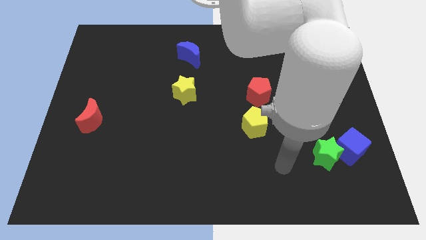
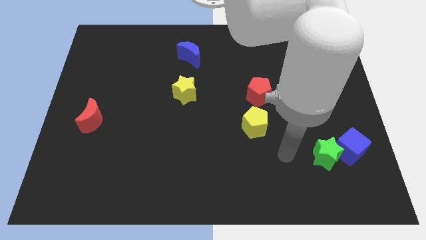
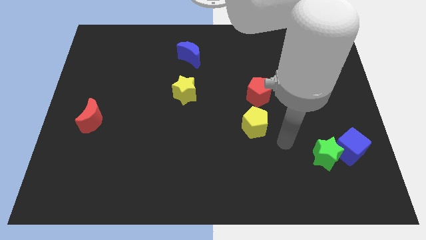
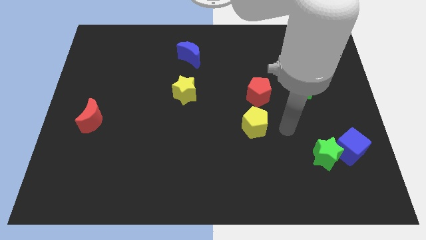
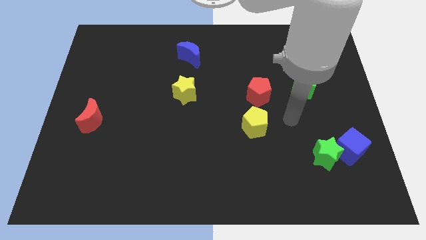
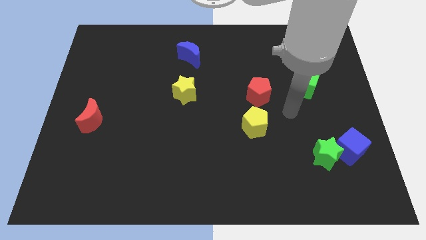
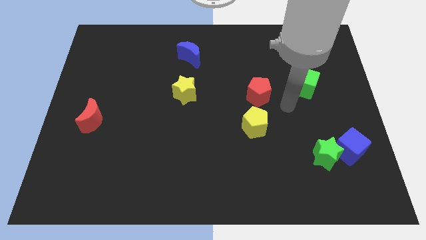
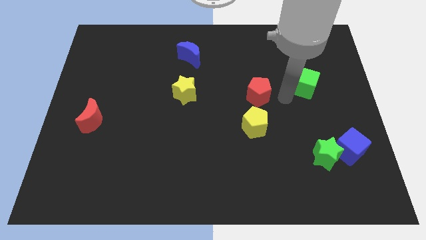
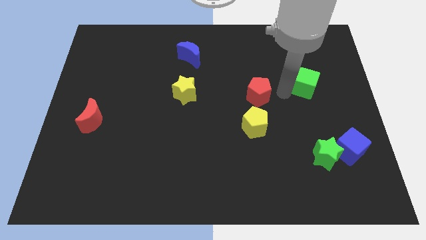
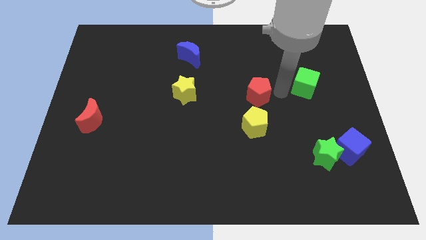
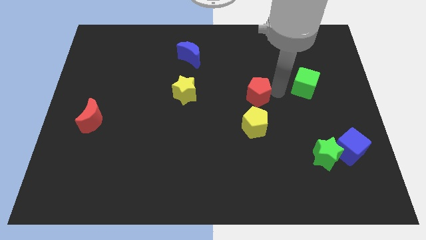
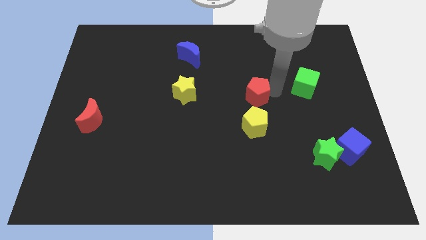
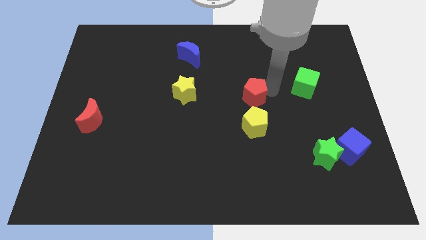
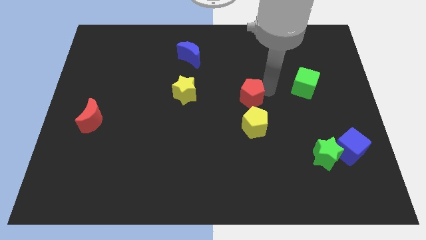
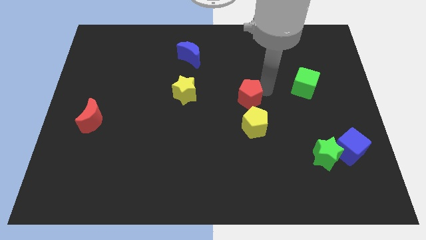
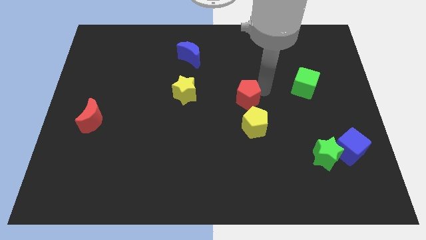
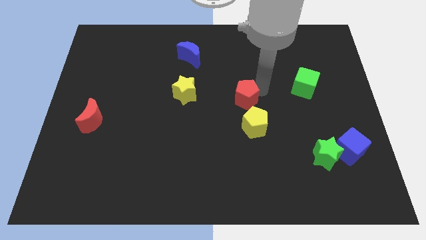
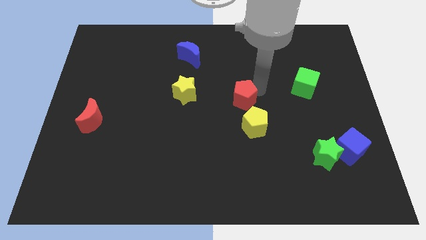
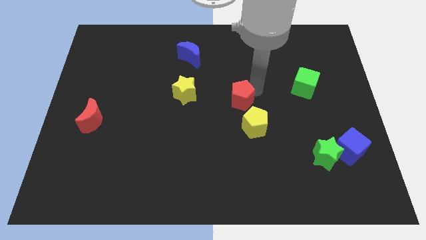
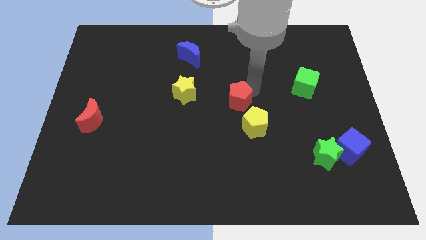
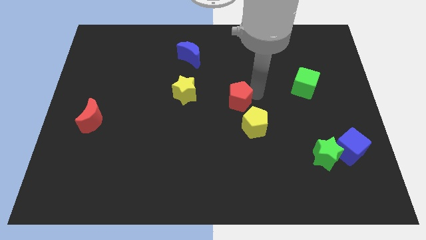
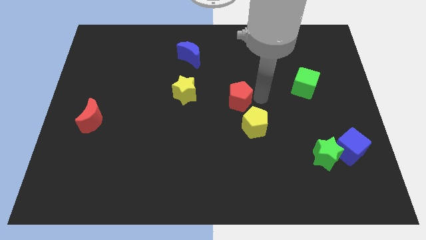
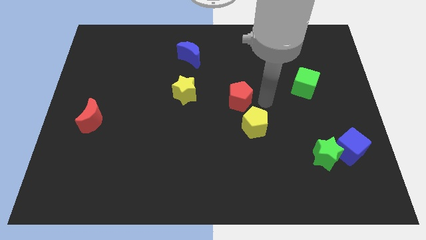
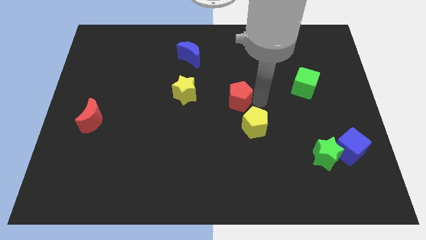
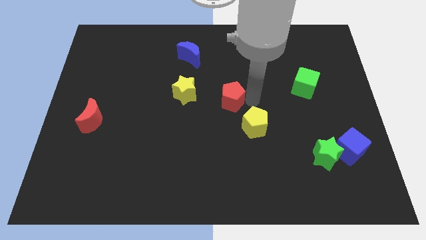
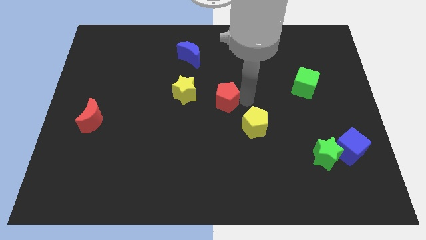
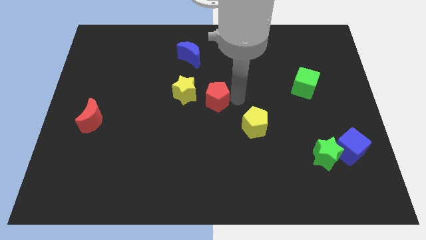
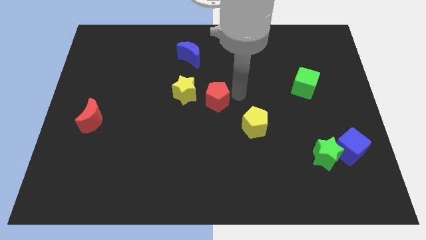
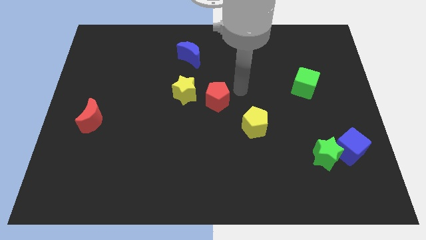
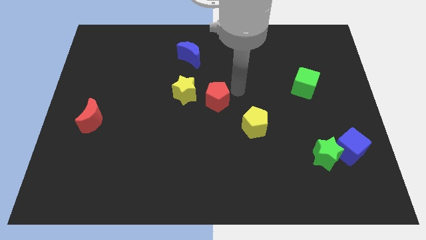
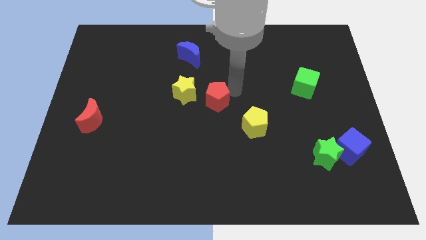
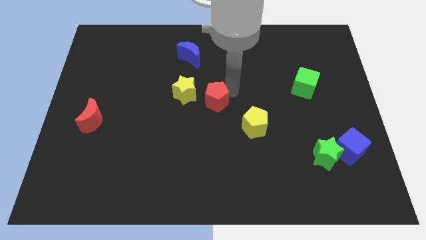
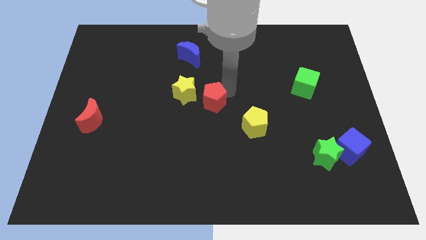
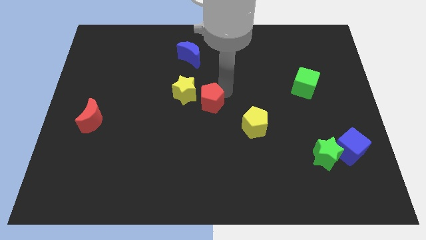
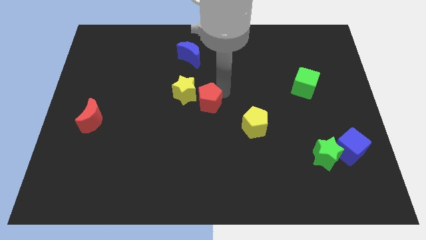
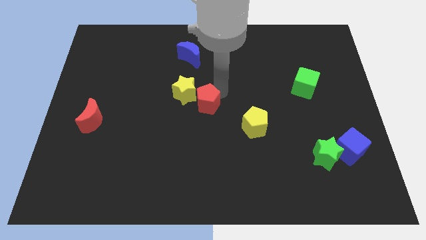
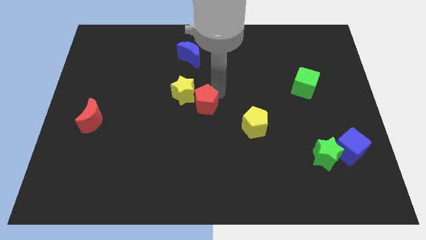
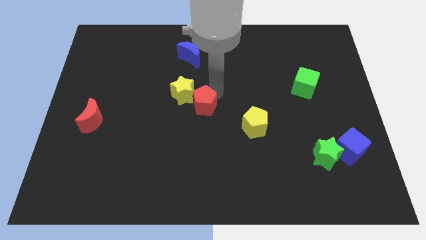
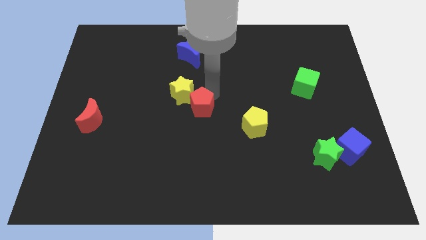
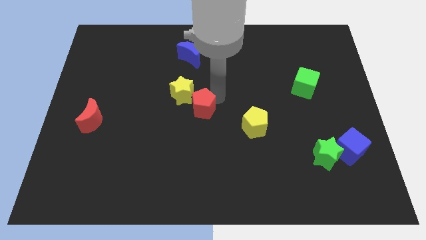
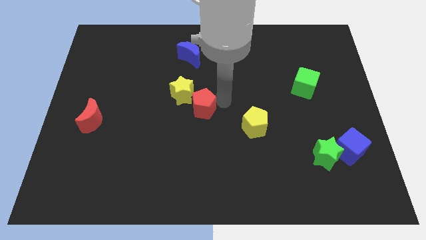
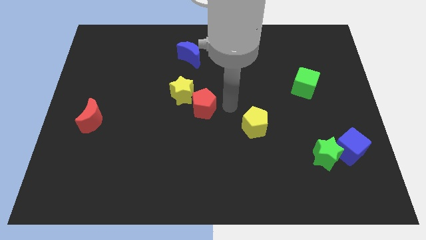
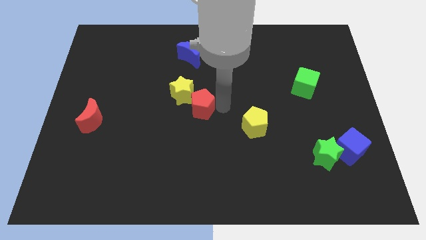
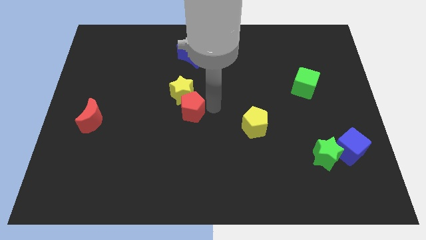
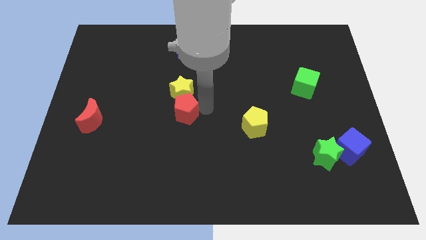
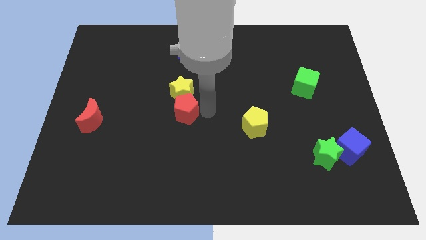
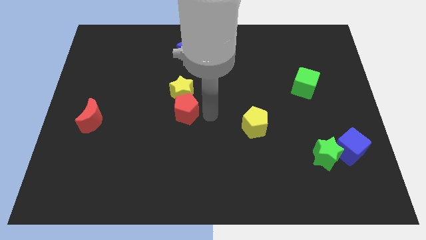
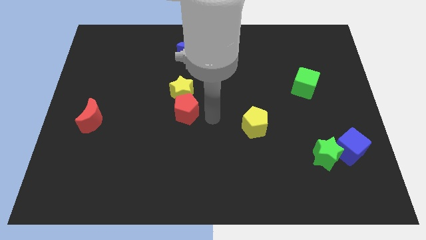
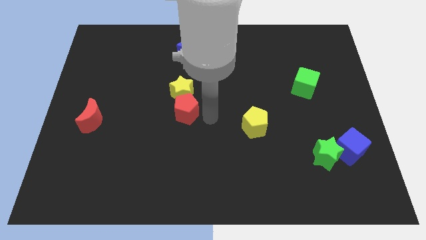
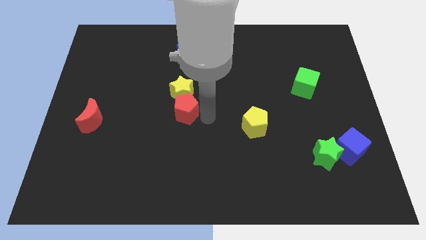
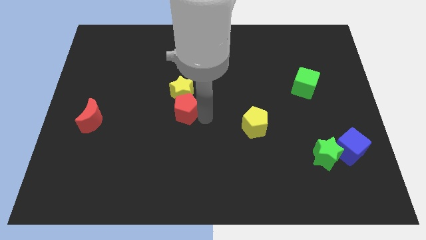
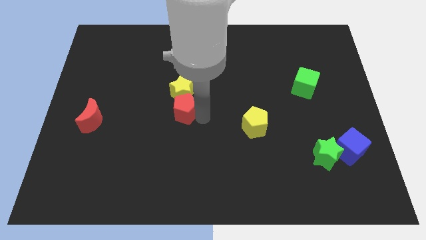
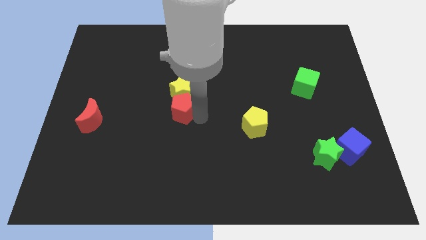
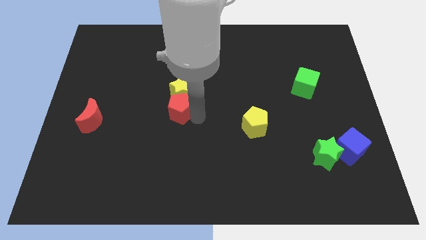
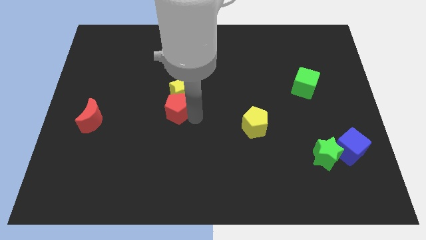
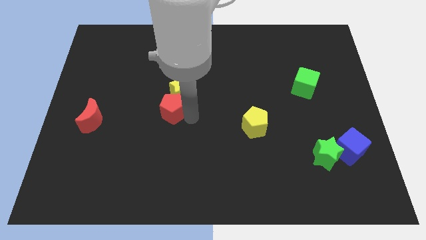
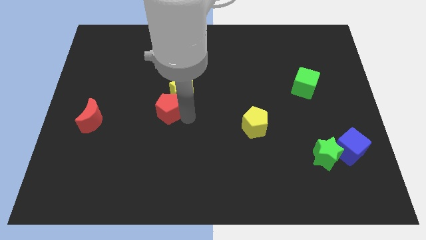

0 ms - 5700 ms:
push the red pentagon left

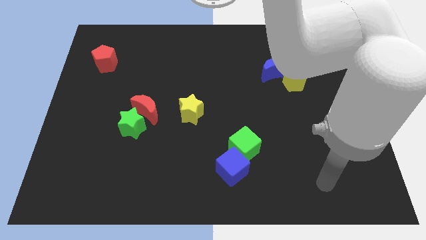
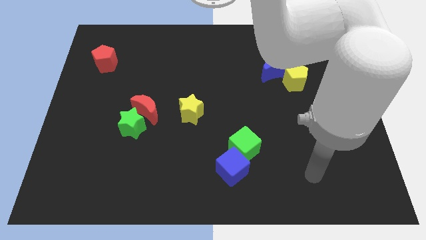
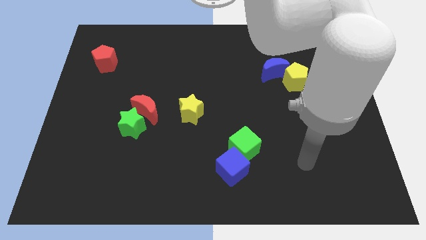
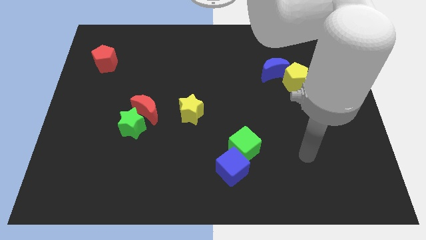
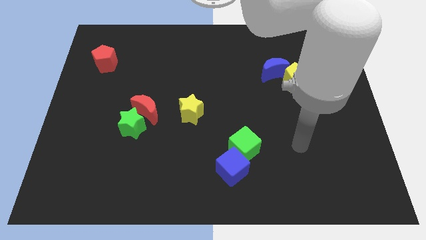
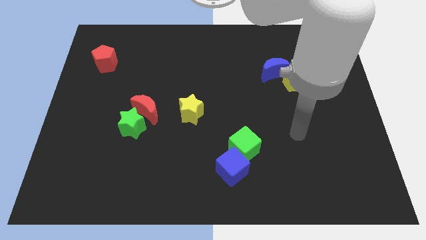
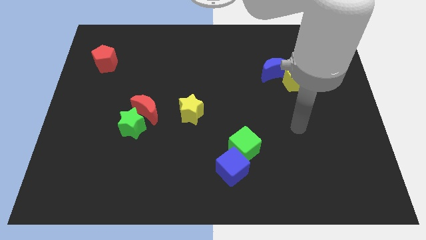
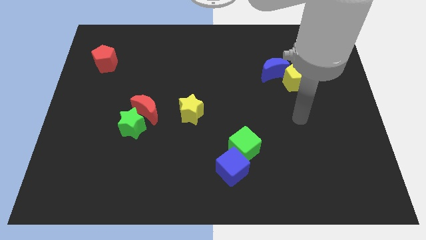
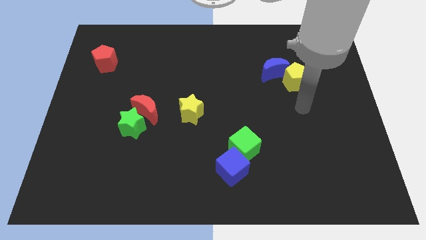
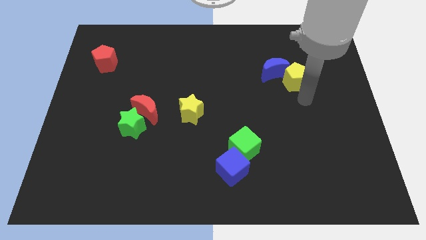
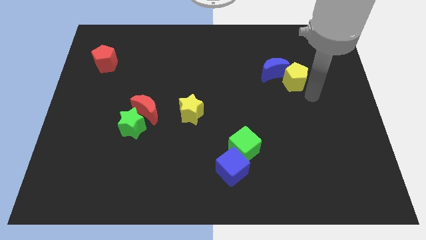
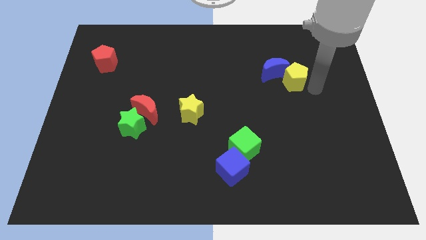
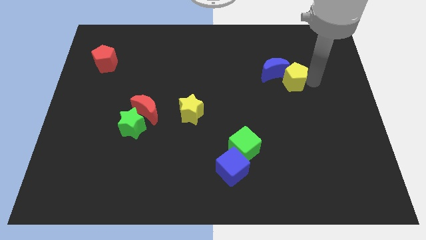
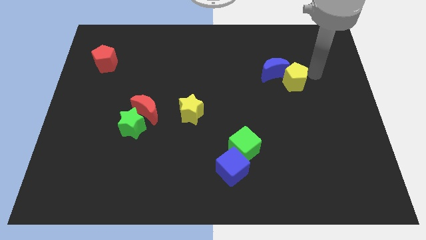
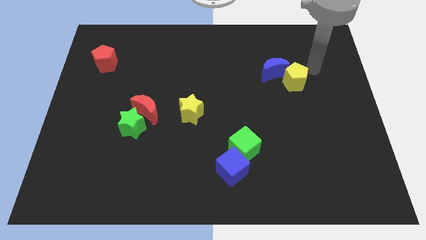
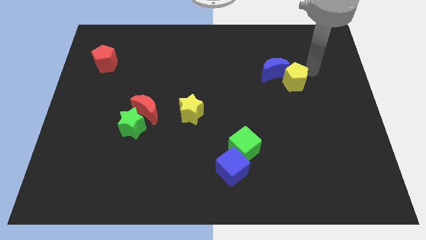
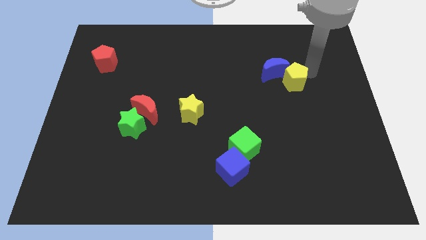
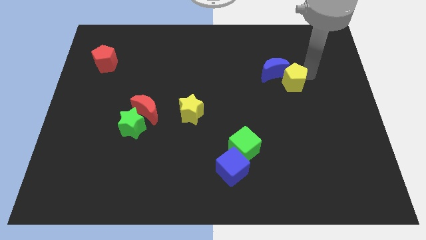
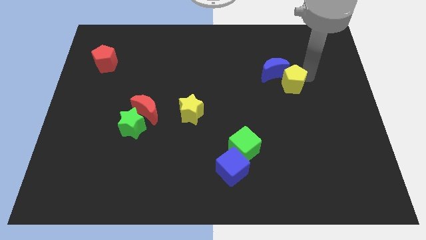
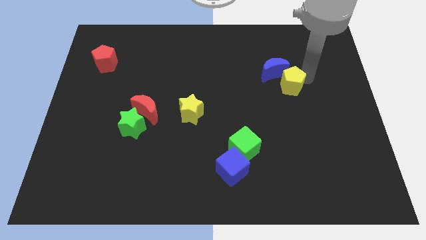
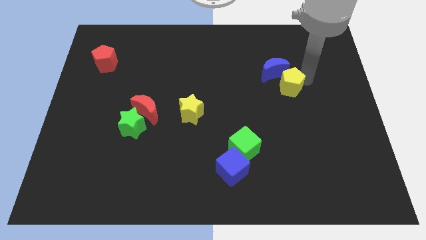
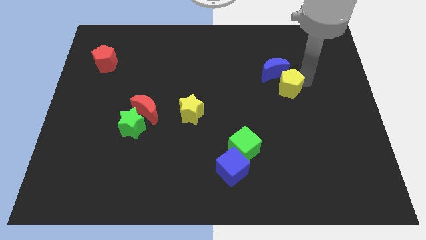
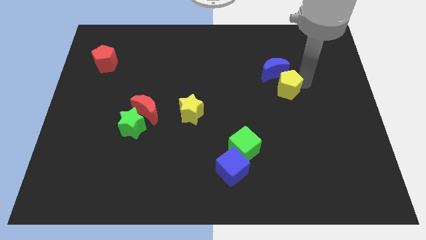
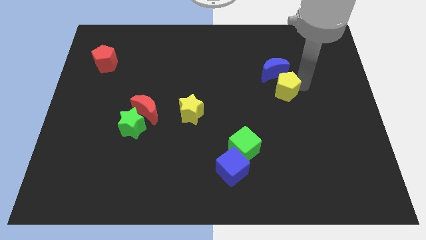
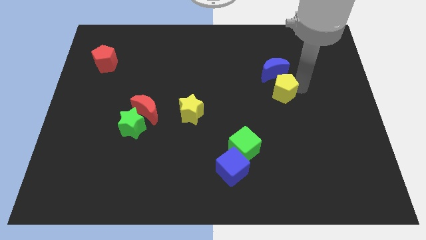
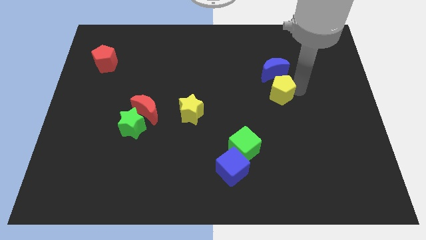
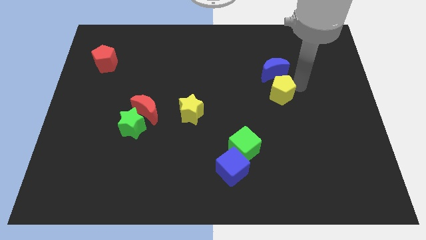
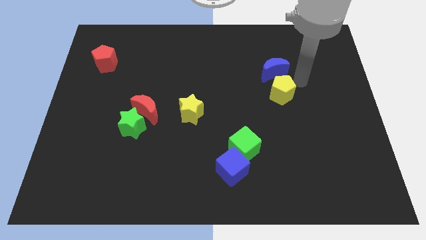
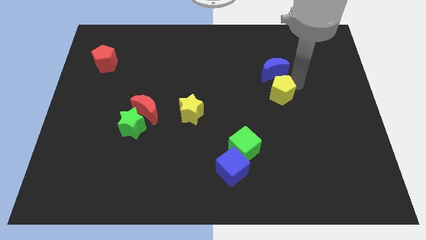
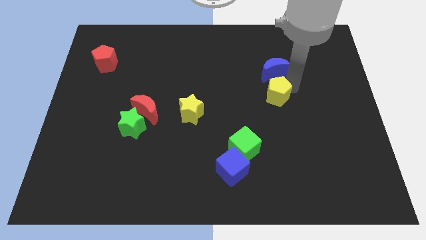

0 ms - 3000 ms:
slide the yellow pentagon downwards and to the left diagonally a bit
